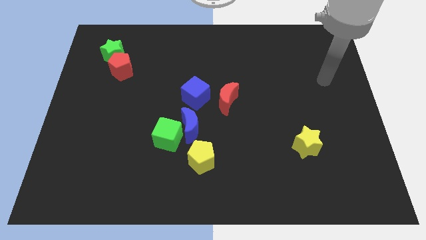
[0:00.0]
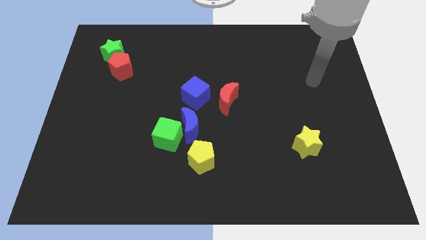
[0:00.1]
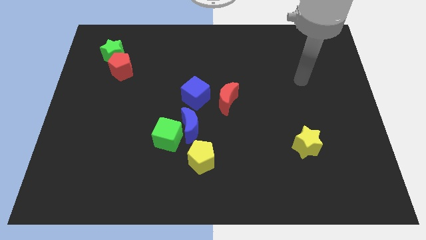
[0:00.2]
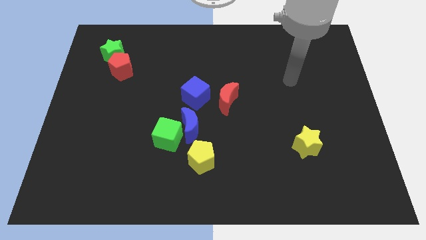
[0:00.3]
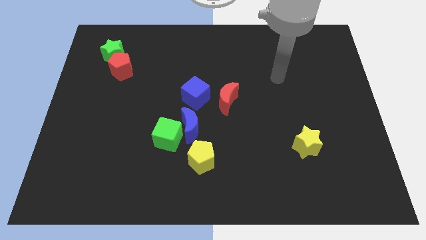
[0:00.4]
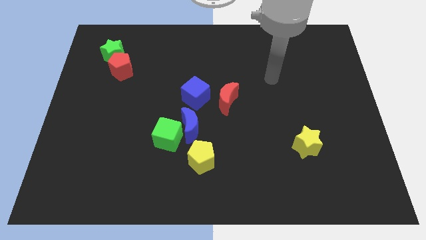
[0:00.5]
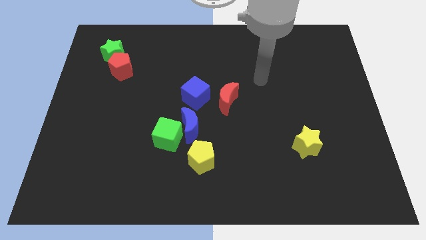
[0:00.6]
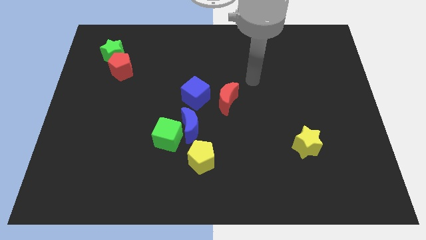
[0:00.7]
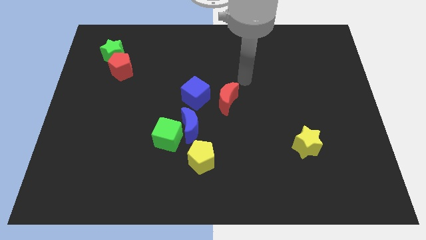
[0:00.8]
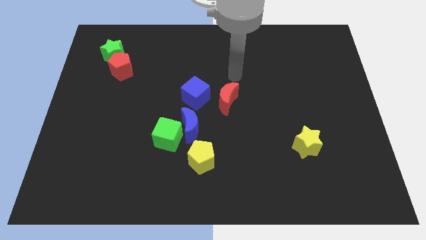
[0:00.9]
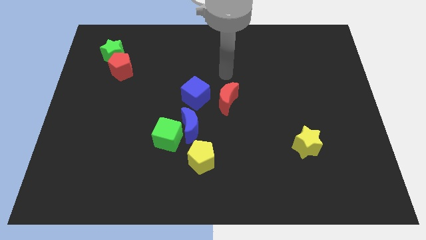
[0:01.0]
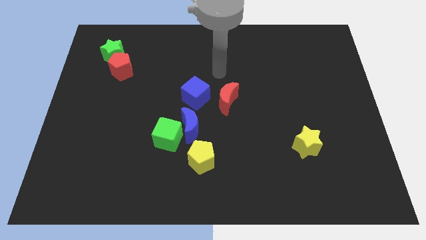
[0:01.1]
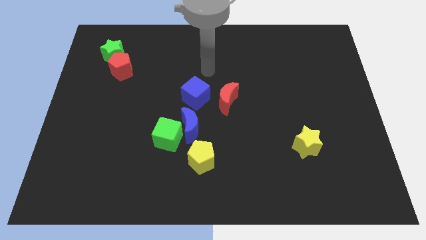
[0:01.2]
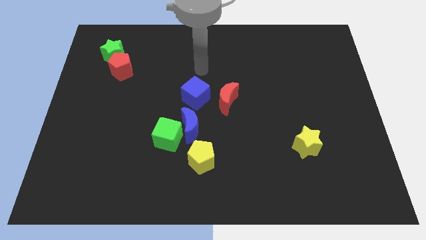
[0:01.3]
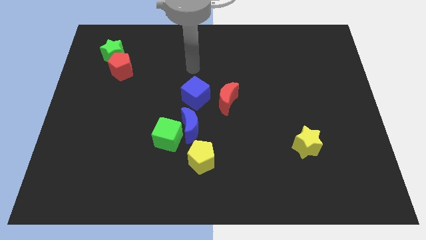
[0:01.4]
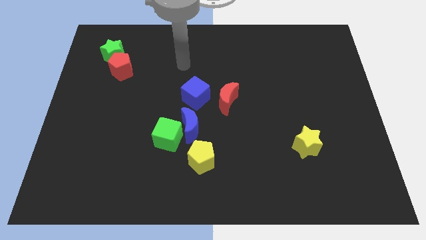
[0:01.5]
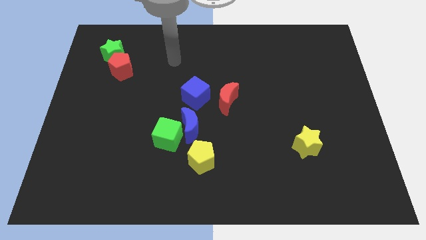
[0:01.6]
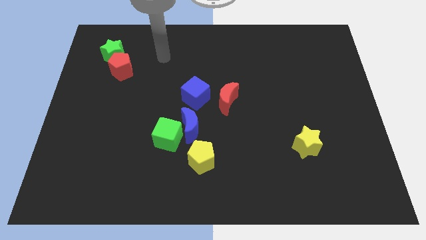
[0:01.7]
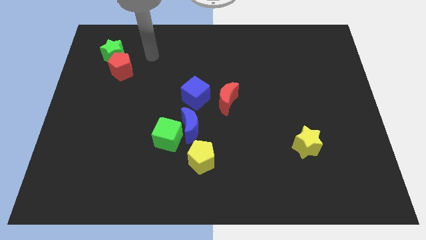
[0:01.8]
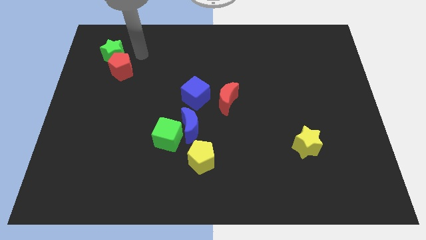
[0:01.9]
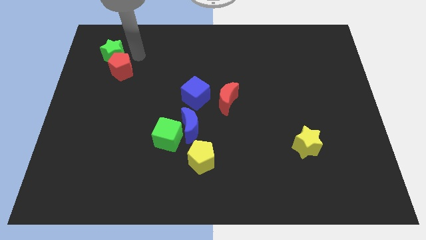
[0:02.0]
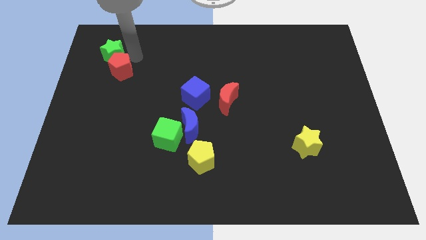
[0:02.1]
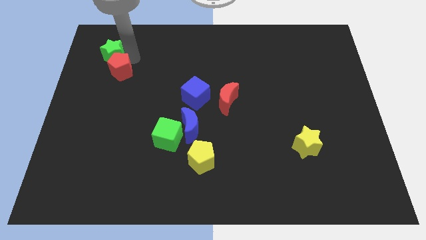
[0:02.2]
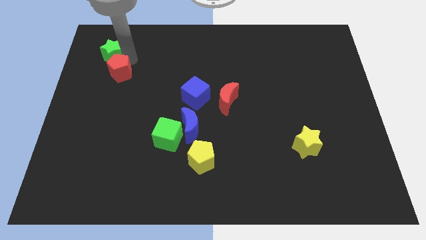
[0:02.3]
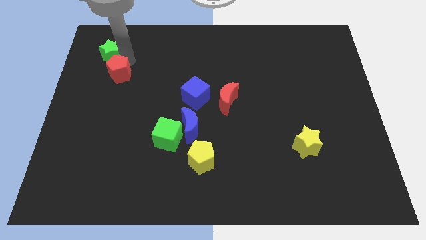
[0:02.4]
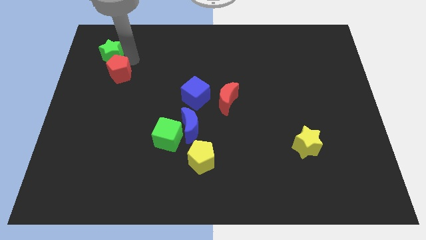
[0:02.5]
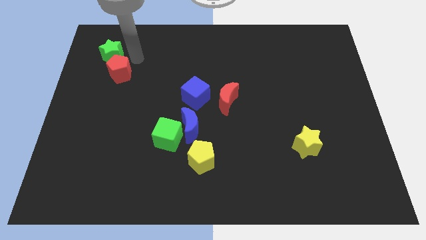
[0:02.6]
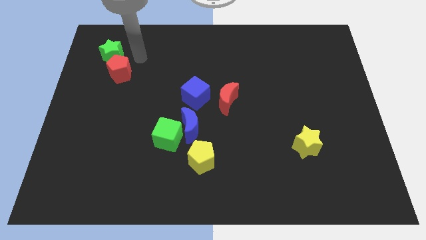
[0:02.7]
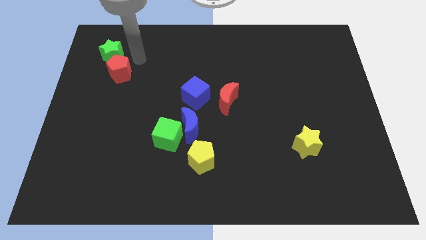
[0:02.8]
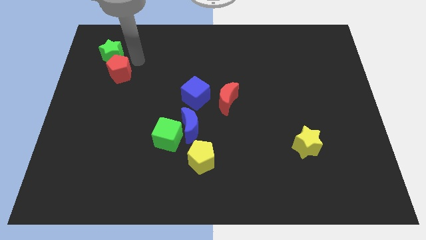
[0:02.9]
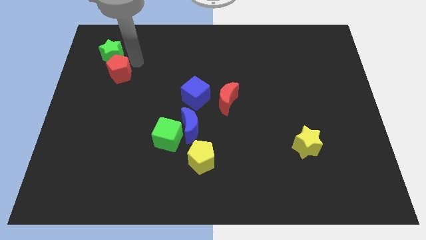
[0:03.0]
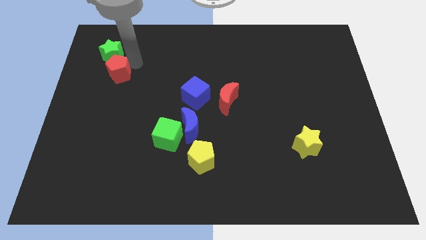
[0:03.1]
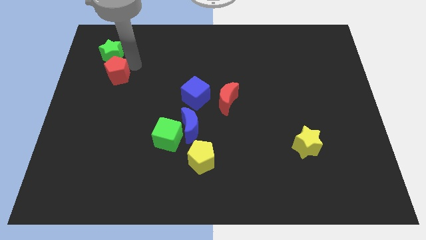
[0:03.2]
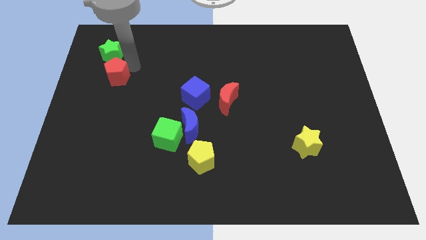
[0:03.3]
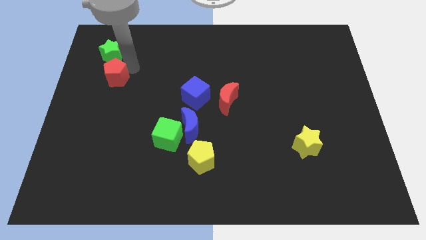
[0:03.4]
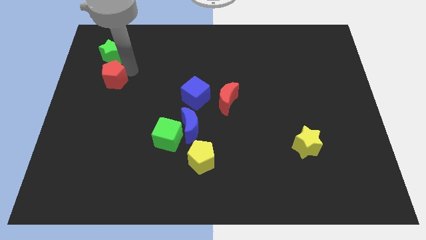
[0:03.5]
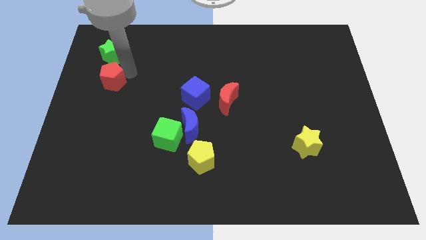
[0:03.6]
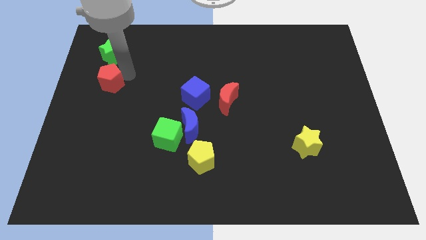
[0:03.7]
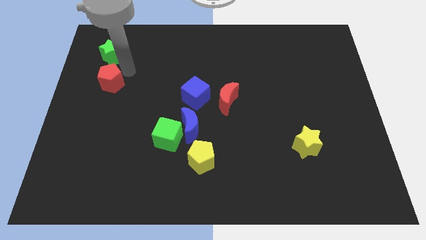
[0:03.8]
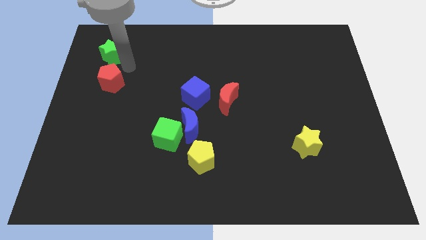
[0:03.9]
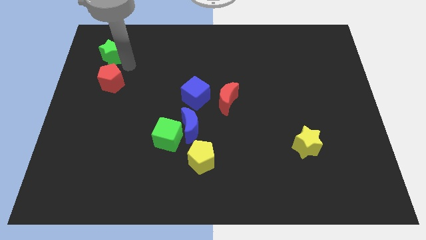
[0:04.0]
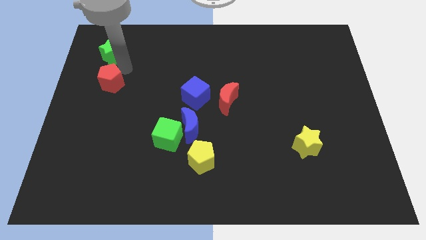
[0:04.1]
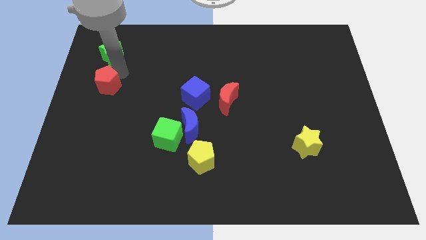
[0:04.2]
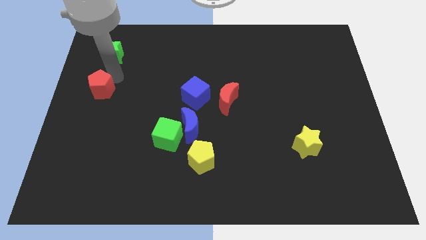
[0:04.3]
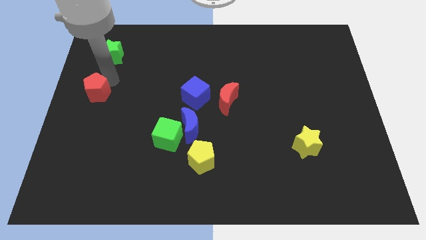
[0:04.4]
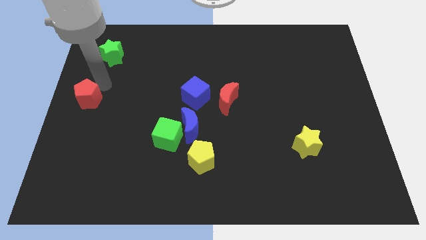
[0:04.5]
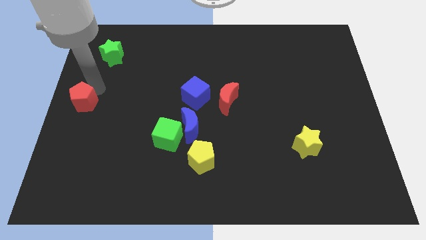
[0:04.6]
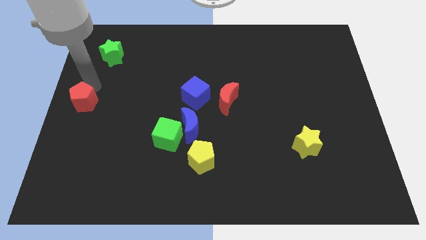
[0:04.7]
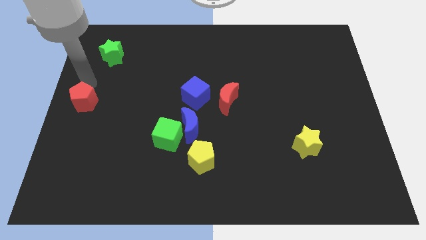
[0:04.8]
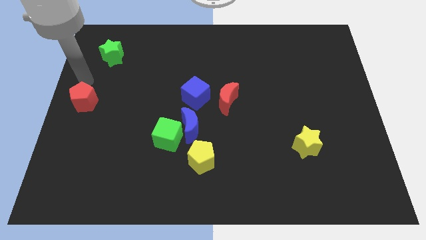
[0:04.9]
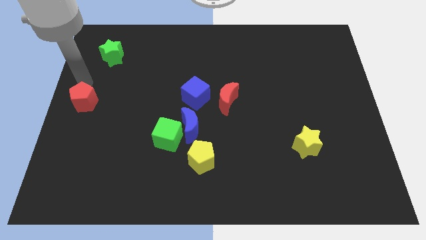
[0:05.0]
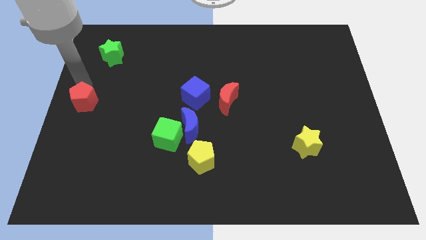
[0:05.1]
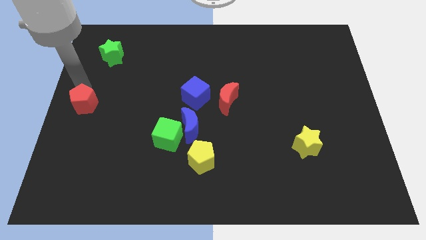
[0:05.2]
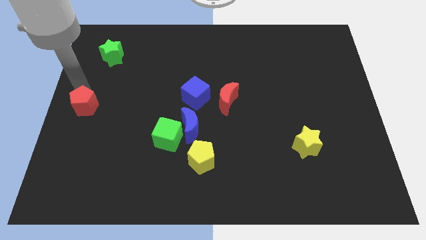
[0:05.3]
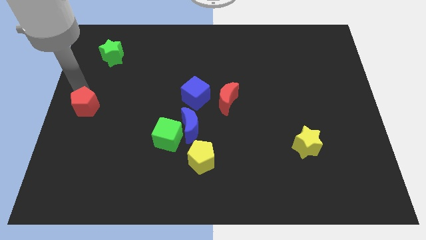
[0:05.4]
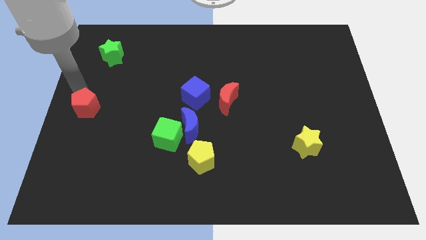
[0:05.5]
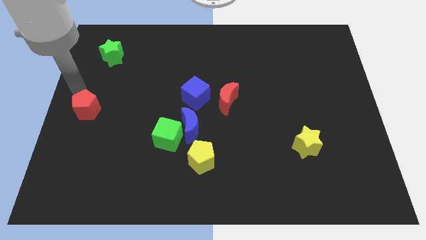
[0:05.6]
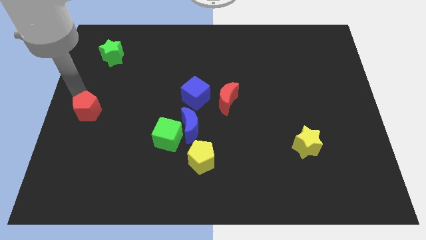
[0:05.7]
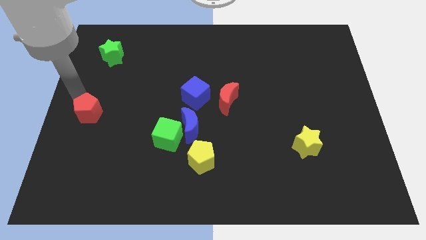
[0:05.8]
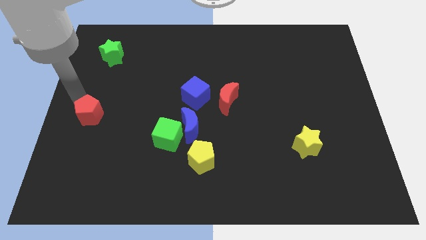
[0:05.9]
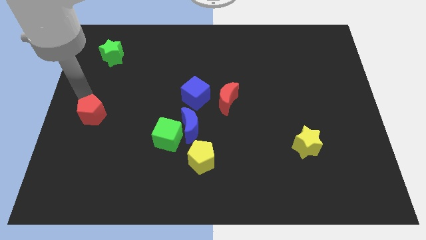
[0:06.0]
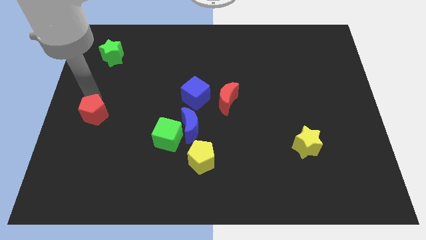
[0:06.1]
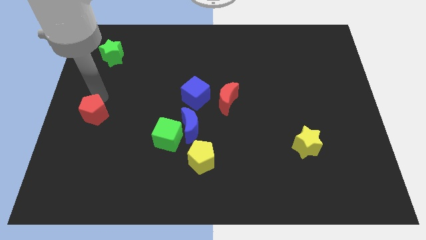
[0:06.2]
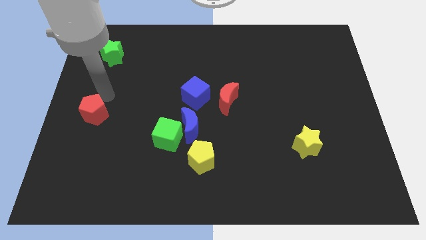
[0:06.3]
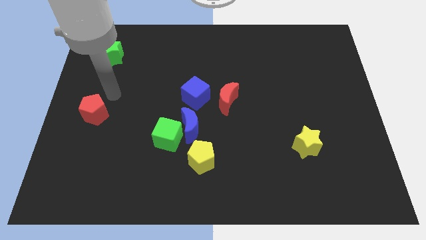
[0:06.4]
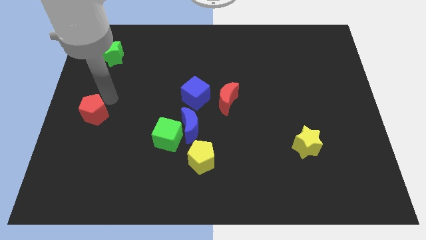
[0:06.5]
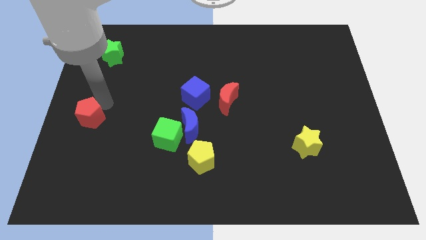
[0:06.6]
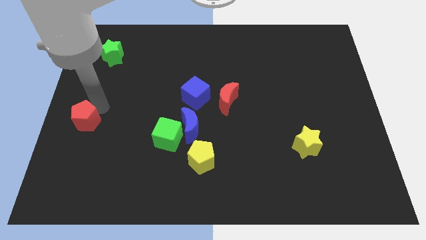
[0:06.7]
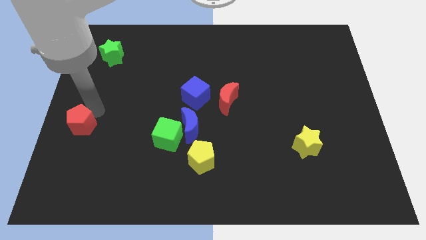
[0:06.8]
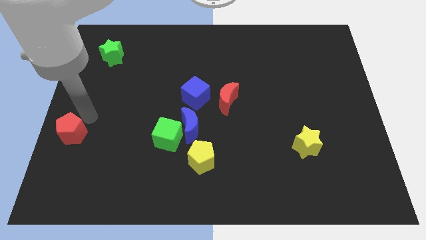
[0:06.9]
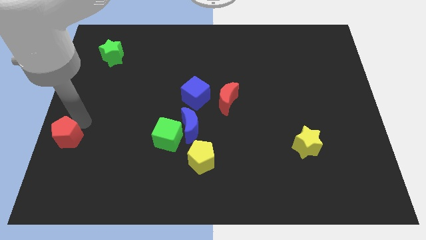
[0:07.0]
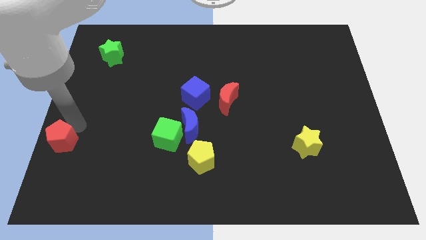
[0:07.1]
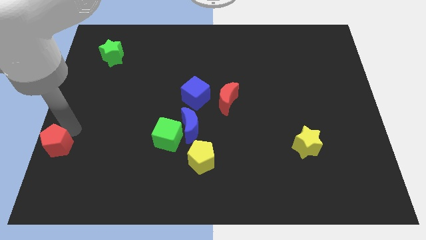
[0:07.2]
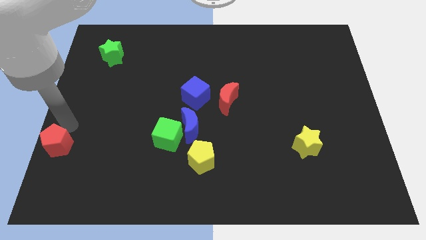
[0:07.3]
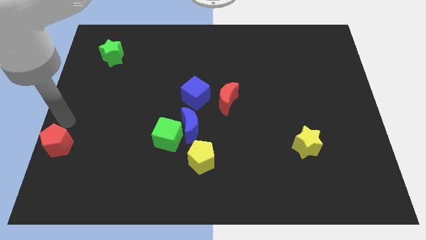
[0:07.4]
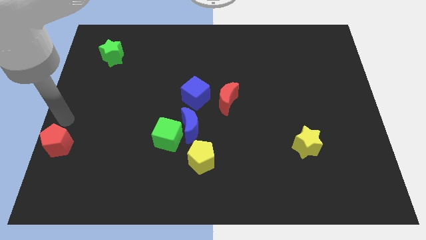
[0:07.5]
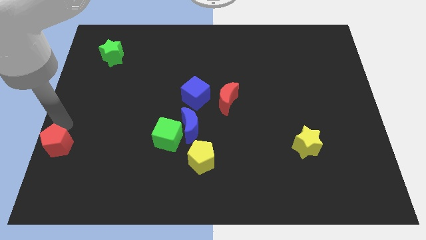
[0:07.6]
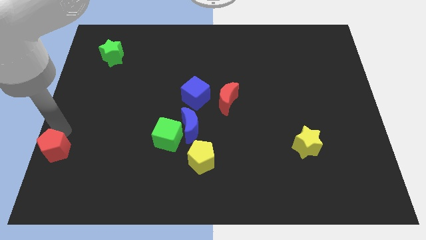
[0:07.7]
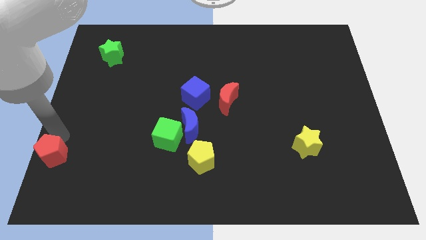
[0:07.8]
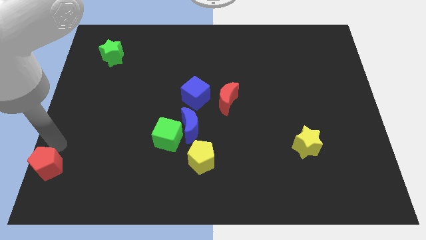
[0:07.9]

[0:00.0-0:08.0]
put the red pentagon to the lower left corner
